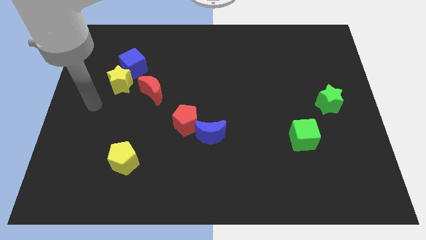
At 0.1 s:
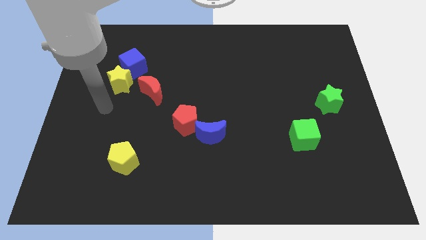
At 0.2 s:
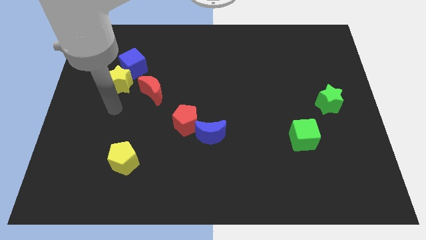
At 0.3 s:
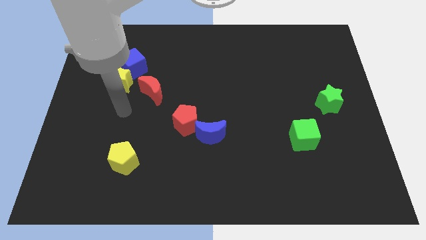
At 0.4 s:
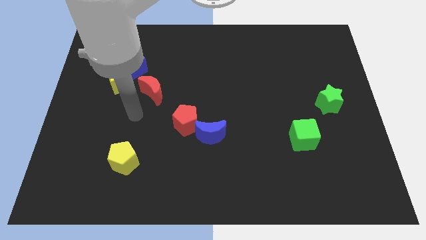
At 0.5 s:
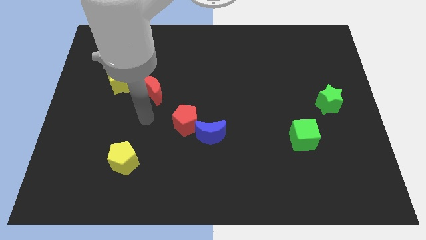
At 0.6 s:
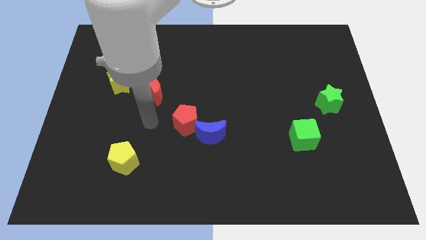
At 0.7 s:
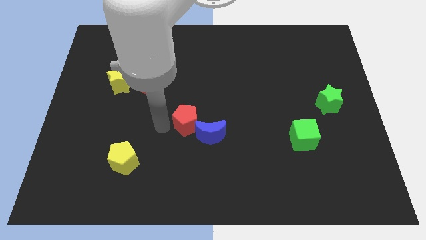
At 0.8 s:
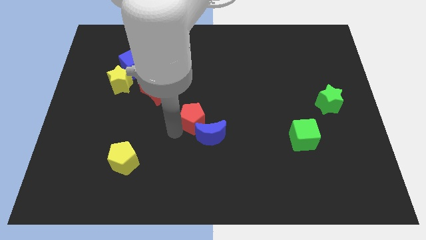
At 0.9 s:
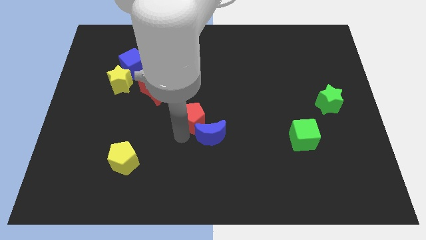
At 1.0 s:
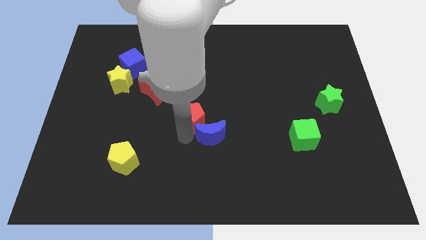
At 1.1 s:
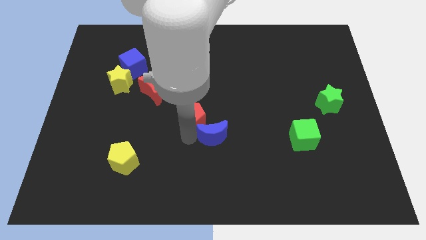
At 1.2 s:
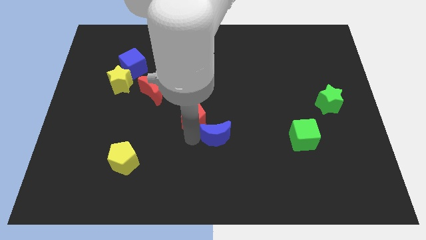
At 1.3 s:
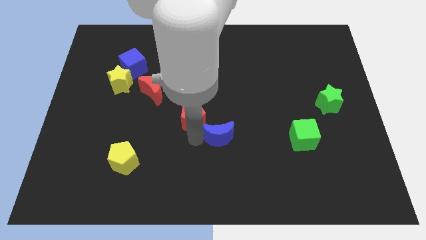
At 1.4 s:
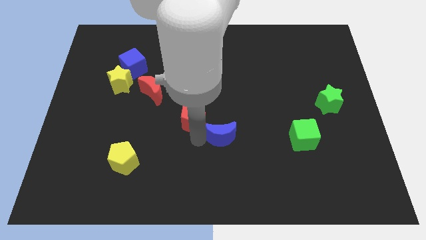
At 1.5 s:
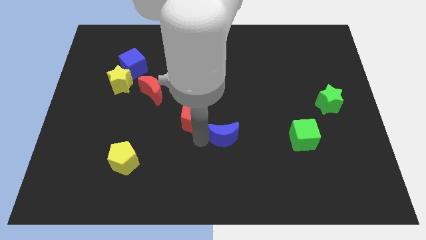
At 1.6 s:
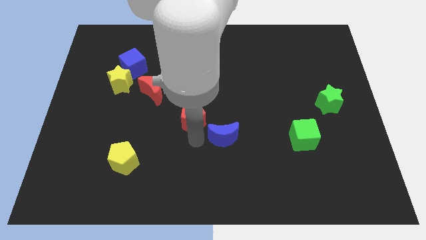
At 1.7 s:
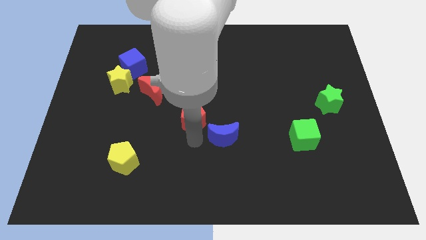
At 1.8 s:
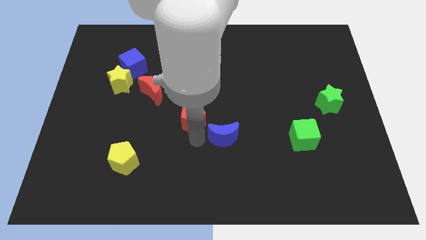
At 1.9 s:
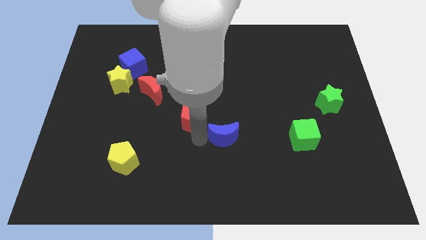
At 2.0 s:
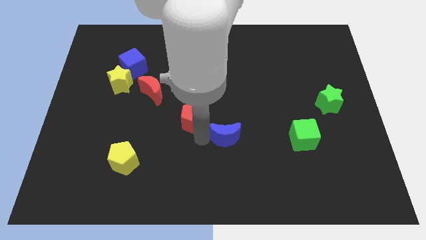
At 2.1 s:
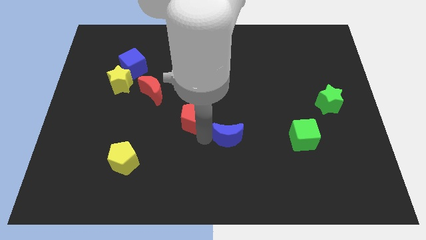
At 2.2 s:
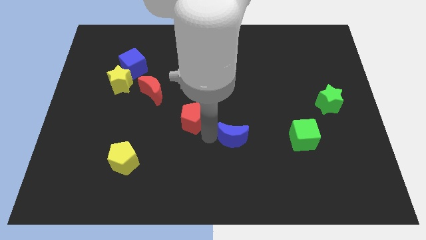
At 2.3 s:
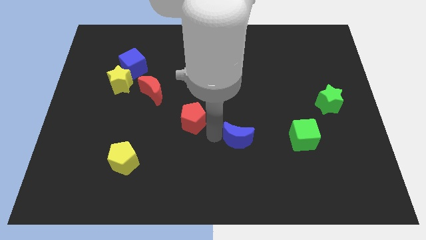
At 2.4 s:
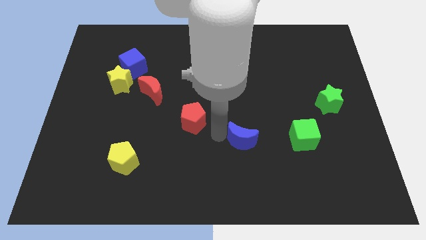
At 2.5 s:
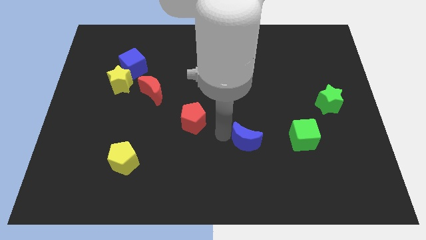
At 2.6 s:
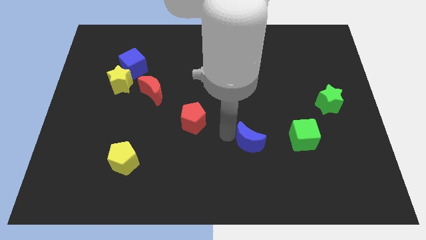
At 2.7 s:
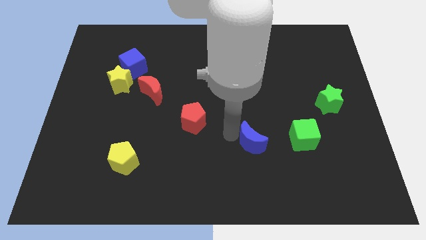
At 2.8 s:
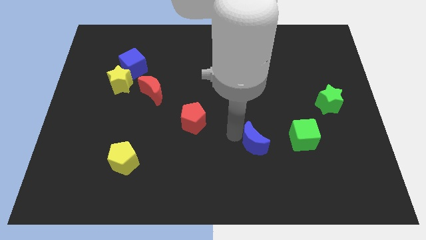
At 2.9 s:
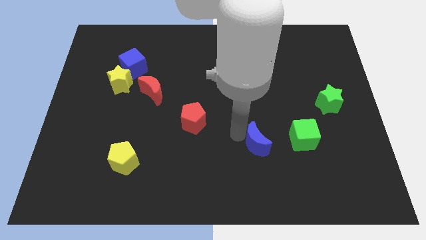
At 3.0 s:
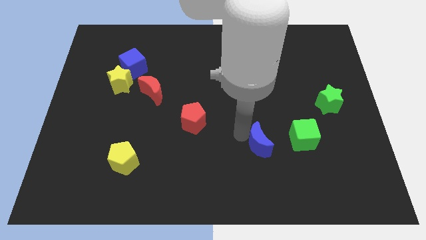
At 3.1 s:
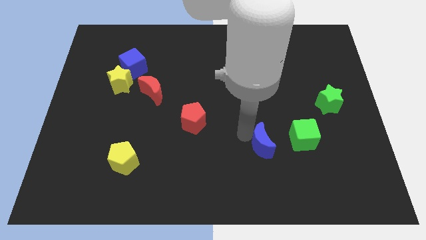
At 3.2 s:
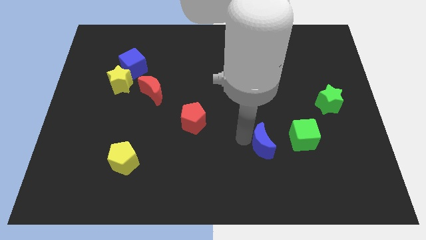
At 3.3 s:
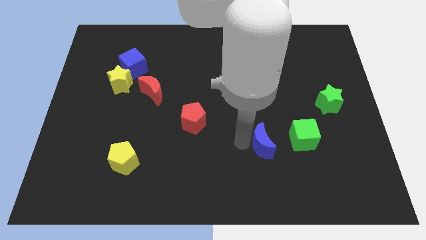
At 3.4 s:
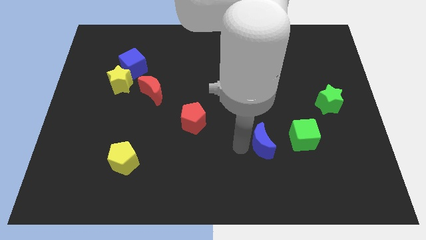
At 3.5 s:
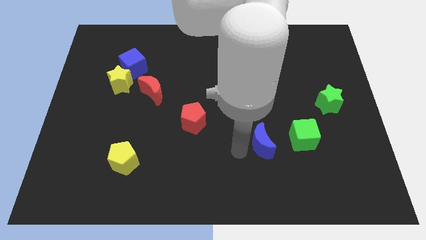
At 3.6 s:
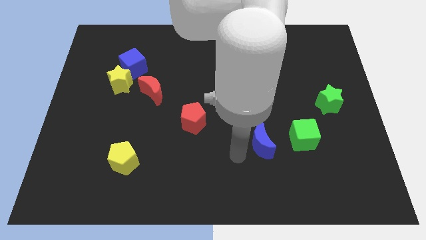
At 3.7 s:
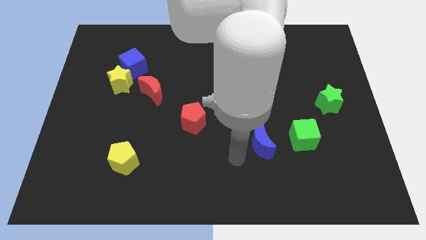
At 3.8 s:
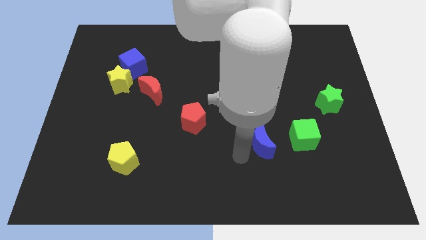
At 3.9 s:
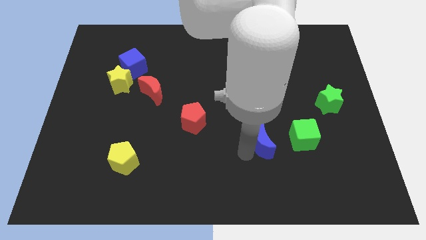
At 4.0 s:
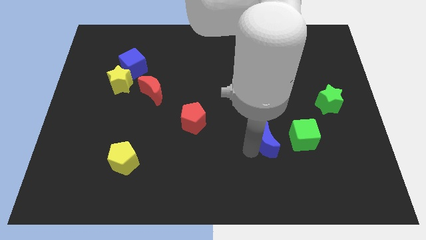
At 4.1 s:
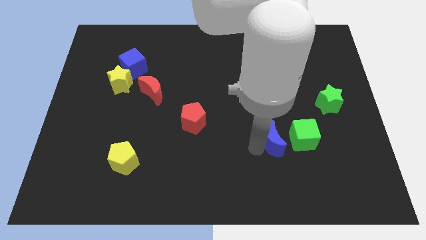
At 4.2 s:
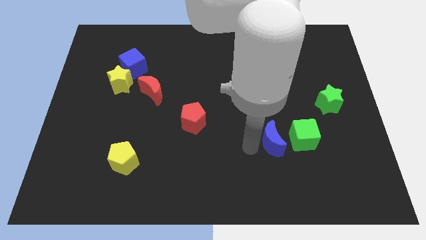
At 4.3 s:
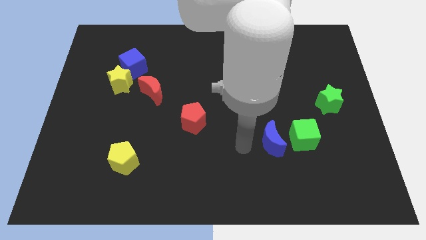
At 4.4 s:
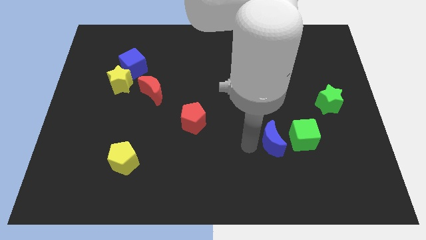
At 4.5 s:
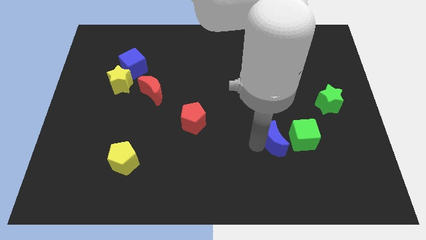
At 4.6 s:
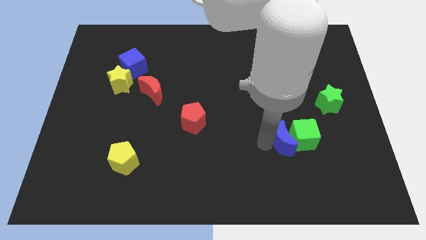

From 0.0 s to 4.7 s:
move the blue moon towards the green cube

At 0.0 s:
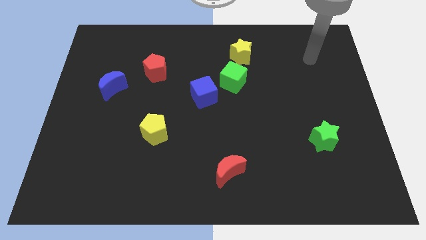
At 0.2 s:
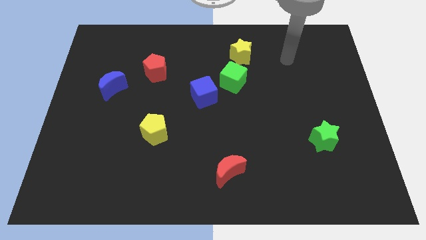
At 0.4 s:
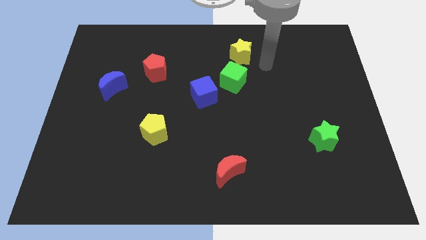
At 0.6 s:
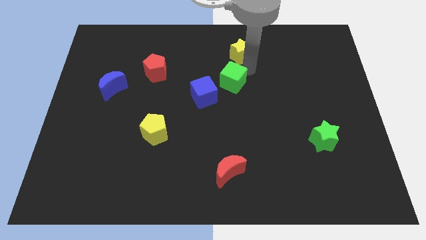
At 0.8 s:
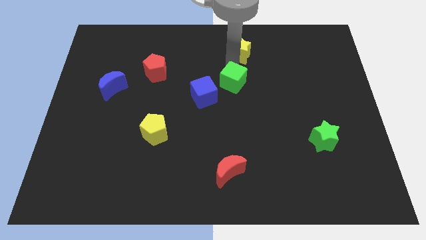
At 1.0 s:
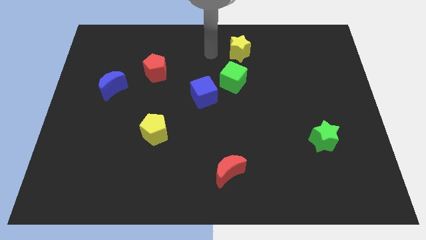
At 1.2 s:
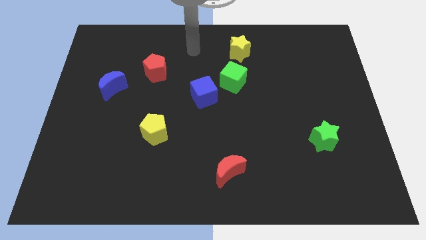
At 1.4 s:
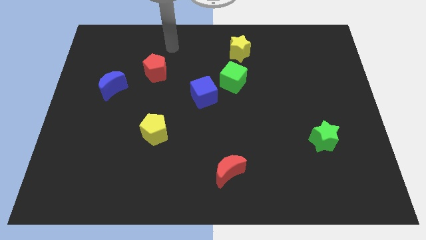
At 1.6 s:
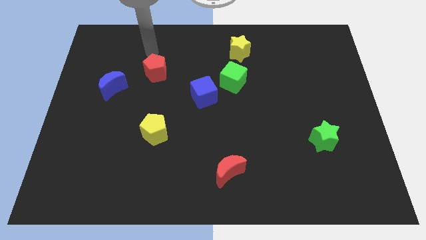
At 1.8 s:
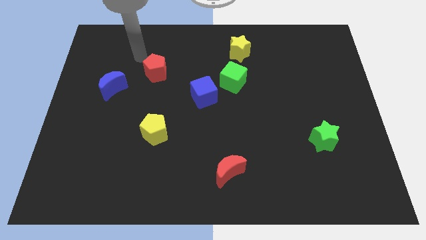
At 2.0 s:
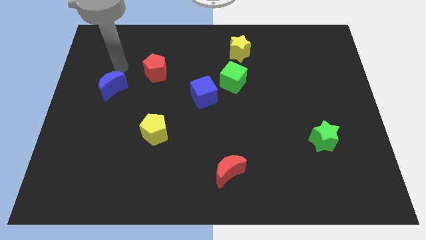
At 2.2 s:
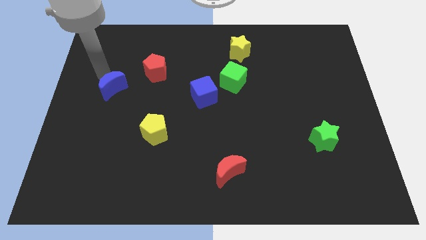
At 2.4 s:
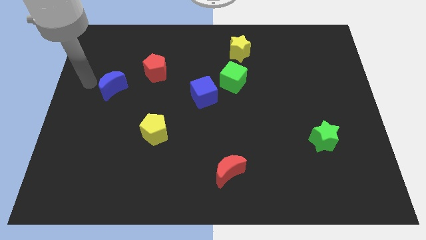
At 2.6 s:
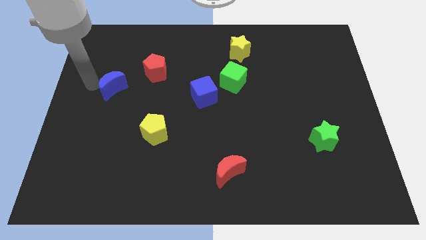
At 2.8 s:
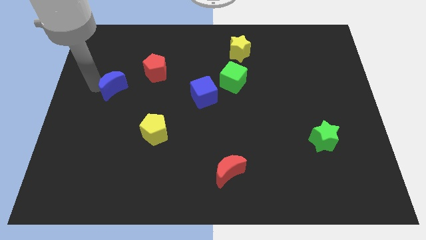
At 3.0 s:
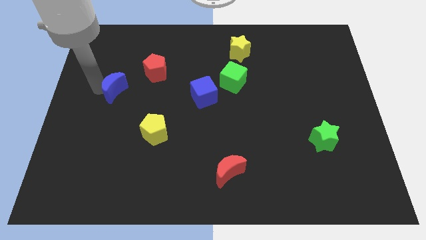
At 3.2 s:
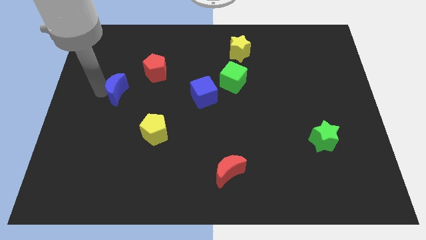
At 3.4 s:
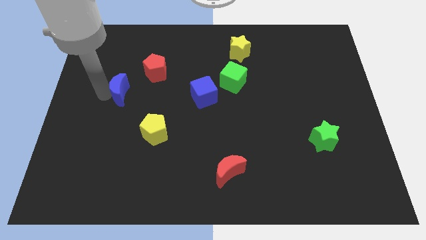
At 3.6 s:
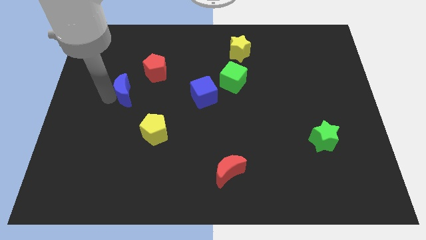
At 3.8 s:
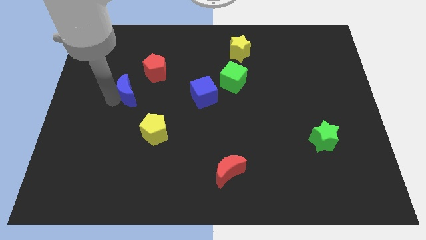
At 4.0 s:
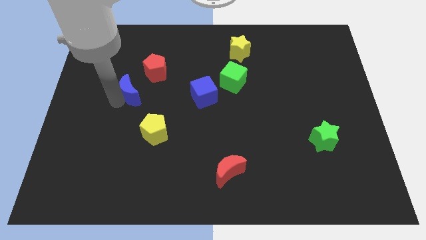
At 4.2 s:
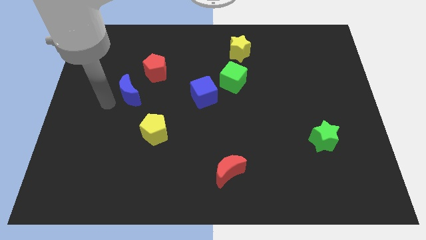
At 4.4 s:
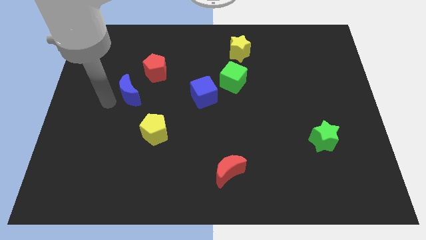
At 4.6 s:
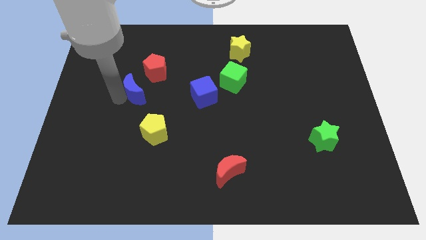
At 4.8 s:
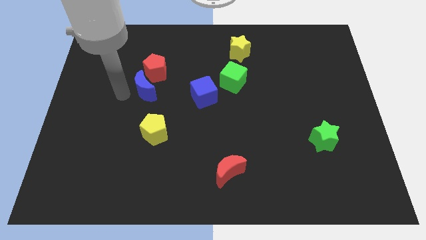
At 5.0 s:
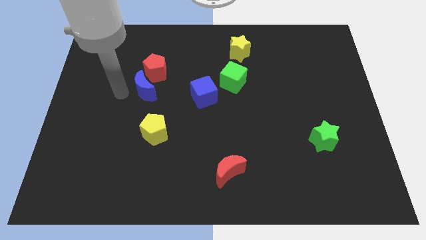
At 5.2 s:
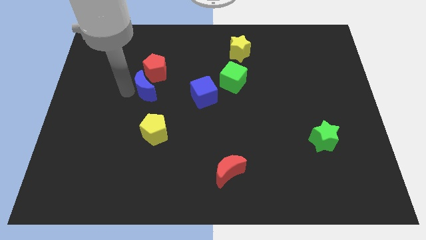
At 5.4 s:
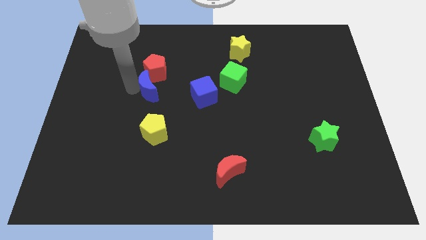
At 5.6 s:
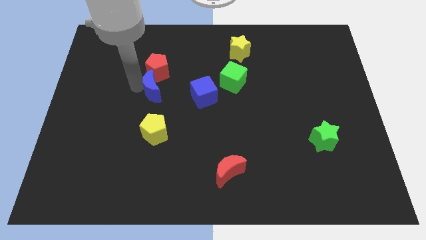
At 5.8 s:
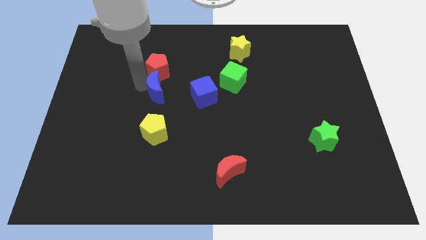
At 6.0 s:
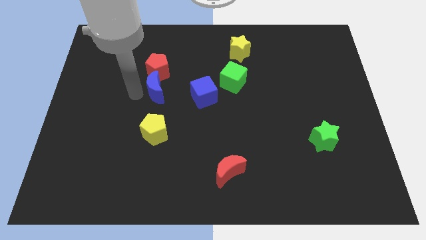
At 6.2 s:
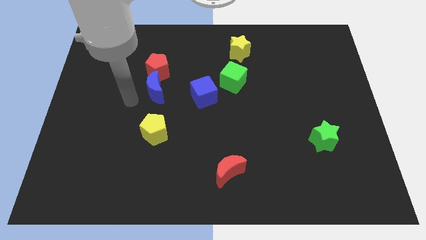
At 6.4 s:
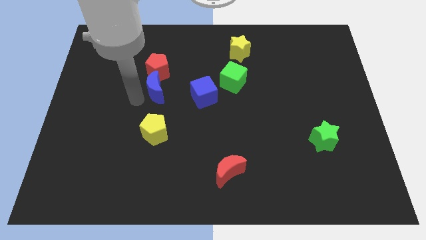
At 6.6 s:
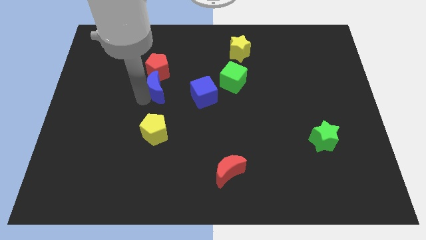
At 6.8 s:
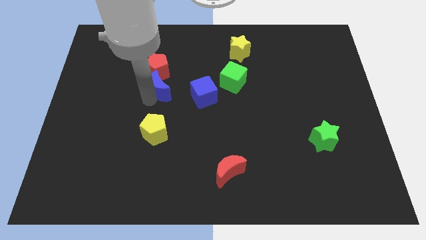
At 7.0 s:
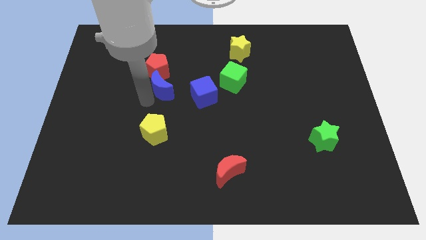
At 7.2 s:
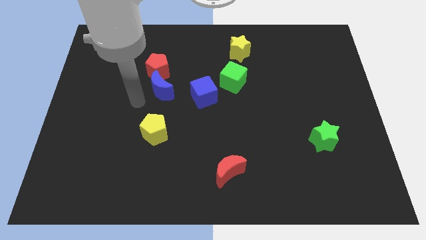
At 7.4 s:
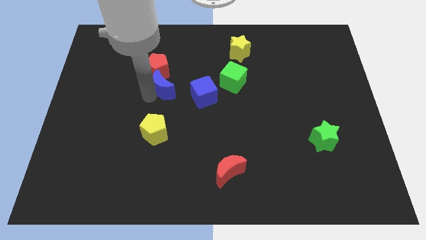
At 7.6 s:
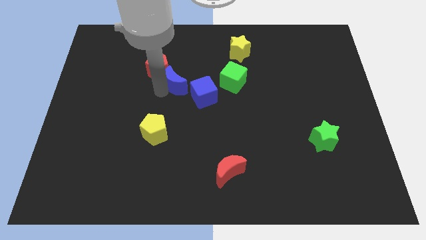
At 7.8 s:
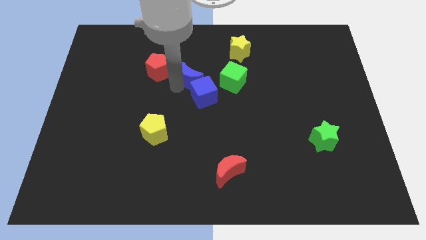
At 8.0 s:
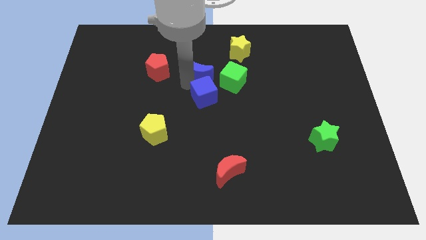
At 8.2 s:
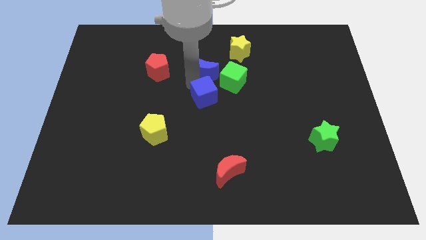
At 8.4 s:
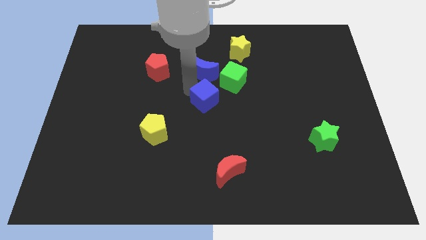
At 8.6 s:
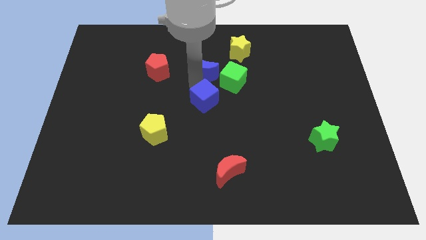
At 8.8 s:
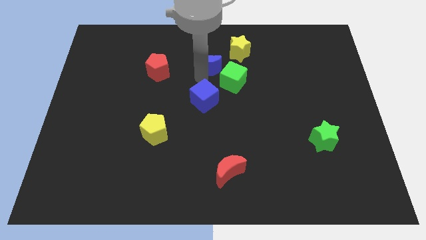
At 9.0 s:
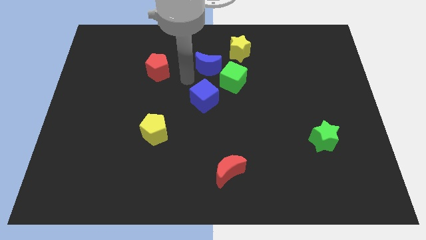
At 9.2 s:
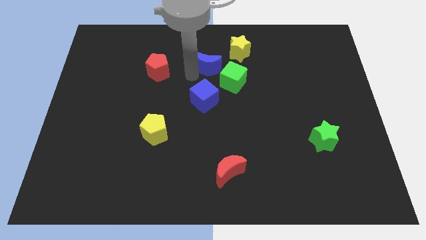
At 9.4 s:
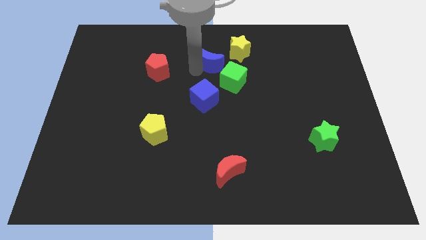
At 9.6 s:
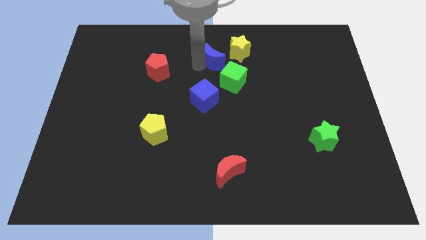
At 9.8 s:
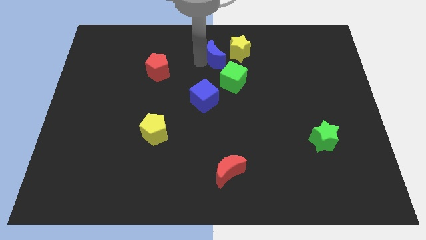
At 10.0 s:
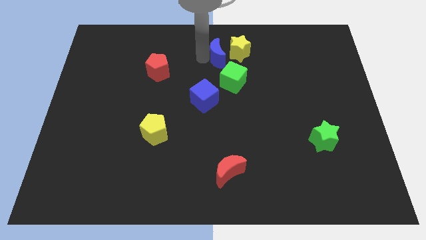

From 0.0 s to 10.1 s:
push the blue moon next to the yellow star
